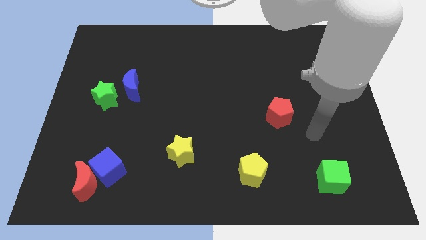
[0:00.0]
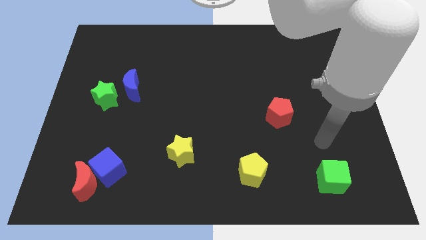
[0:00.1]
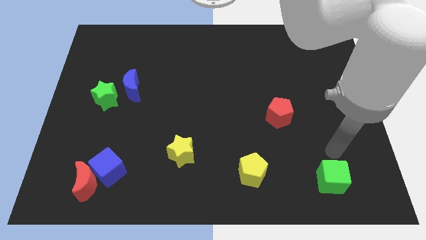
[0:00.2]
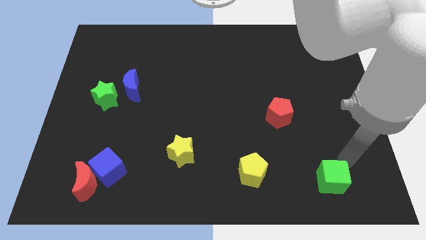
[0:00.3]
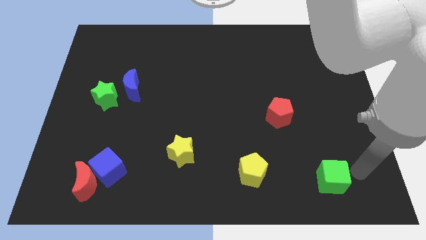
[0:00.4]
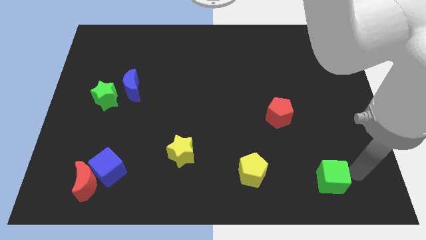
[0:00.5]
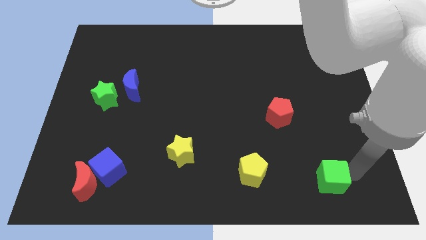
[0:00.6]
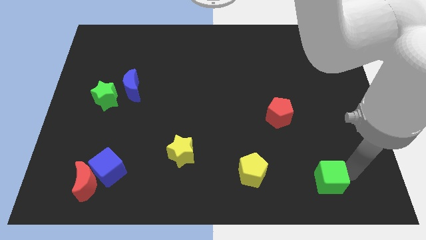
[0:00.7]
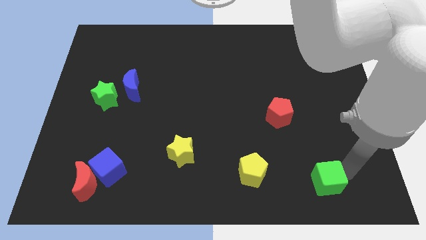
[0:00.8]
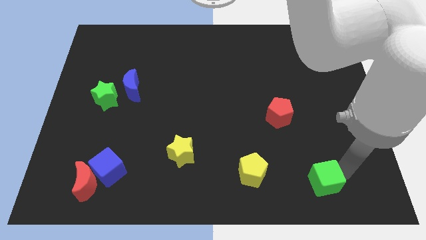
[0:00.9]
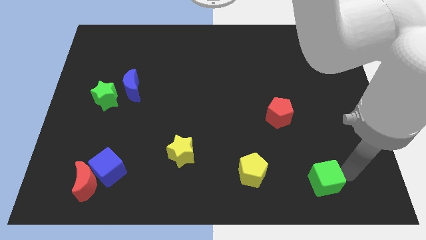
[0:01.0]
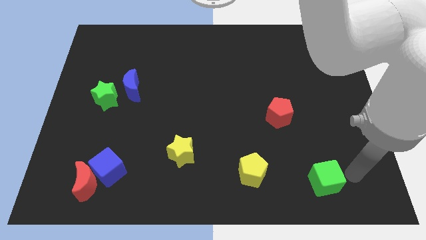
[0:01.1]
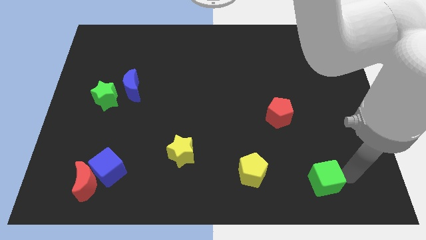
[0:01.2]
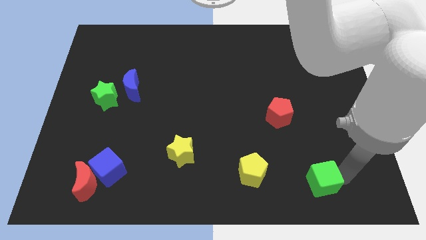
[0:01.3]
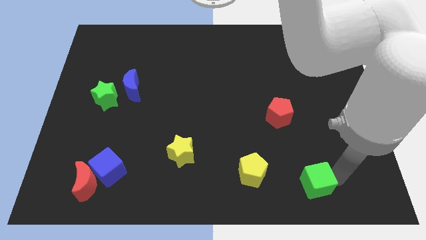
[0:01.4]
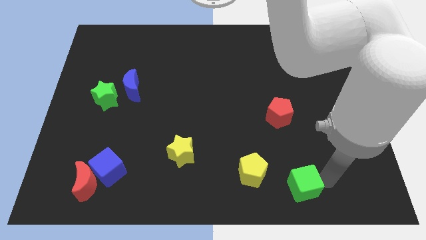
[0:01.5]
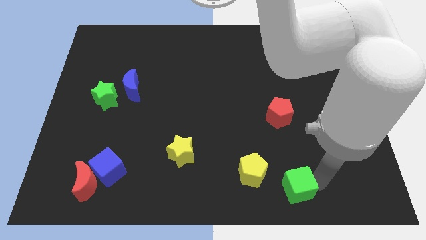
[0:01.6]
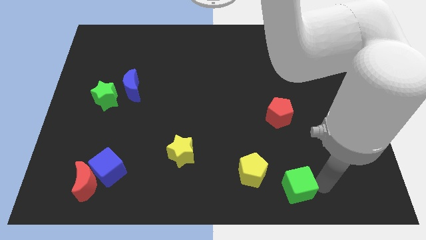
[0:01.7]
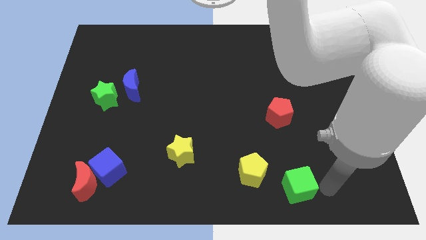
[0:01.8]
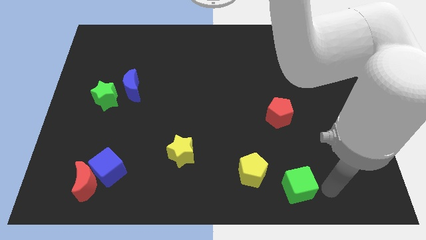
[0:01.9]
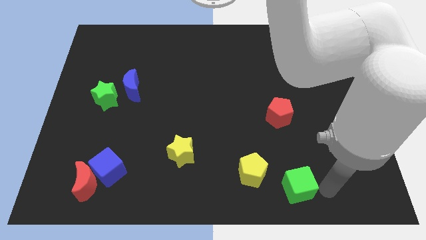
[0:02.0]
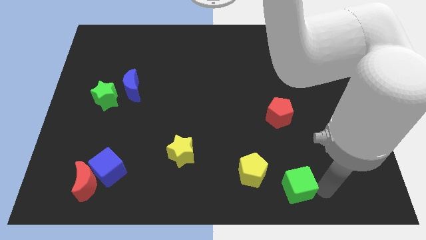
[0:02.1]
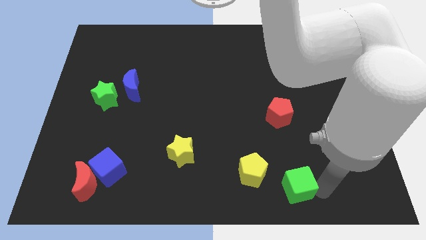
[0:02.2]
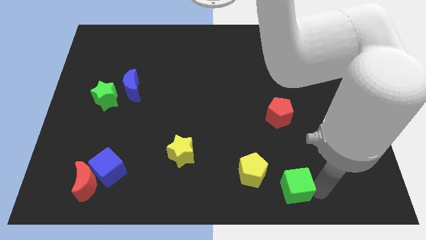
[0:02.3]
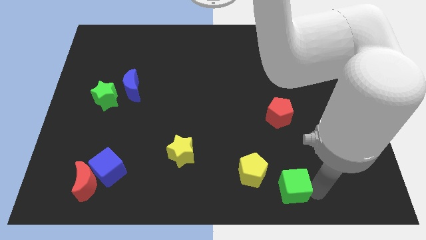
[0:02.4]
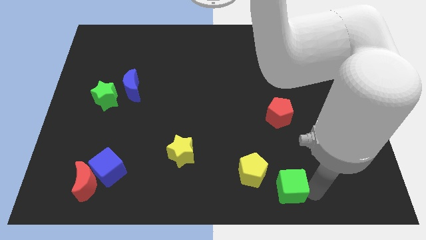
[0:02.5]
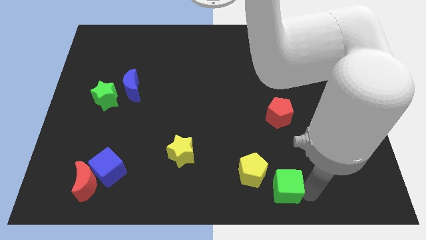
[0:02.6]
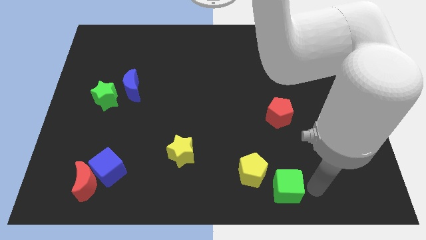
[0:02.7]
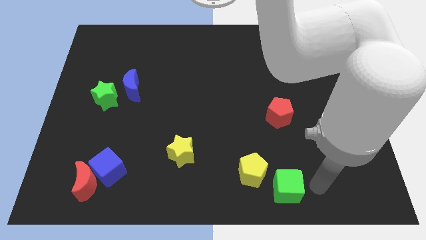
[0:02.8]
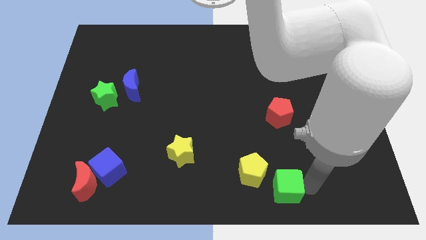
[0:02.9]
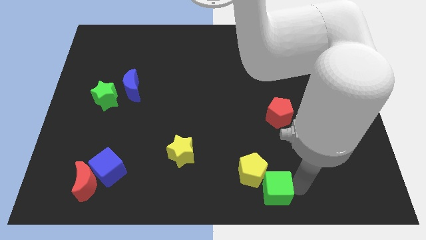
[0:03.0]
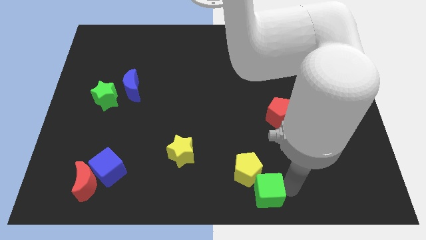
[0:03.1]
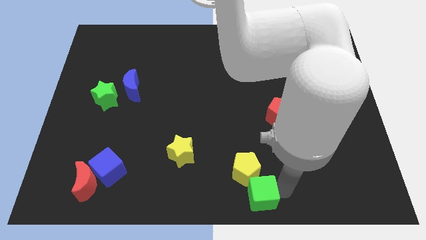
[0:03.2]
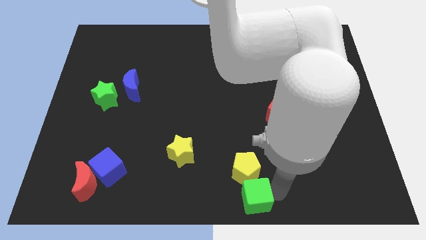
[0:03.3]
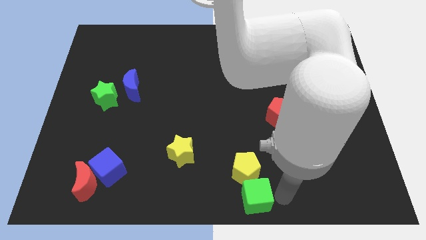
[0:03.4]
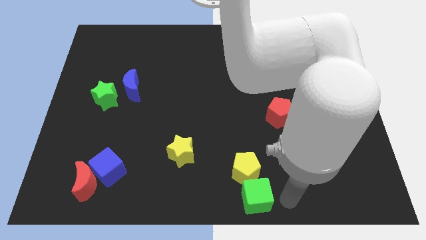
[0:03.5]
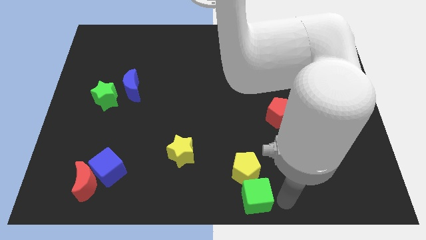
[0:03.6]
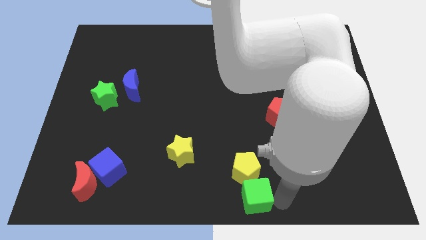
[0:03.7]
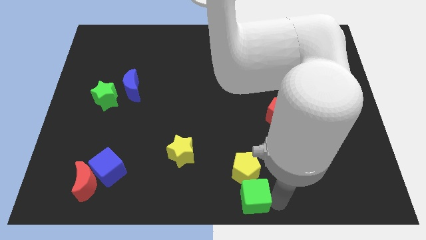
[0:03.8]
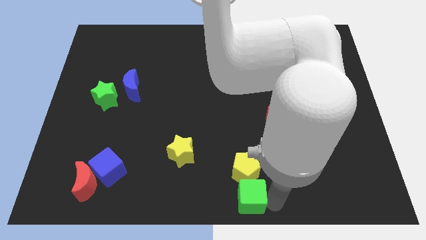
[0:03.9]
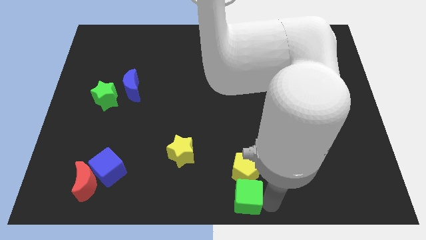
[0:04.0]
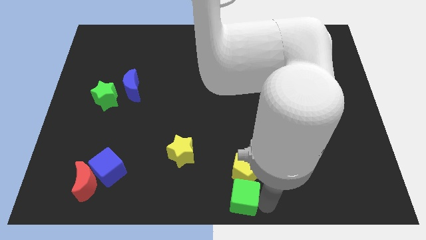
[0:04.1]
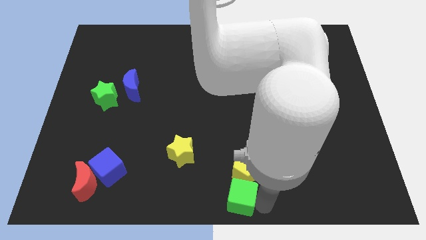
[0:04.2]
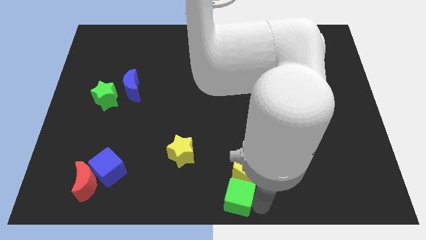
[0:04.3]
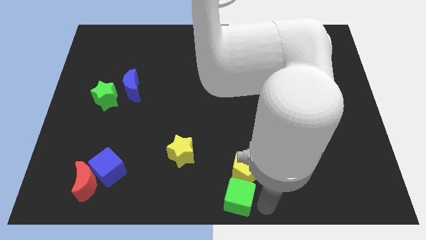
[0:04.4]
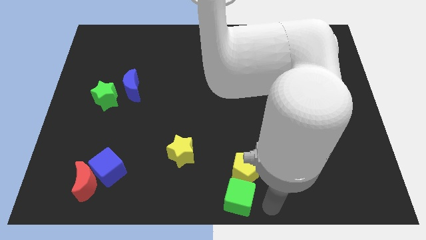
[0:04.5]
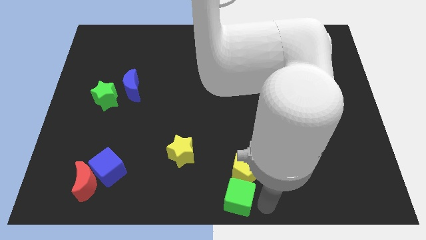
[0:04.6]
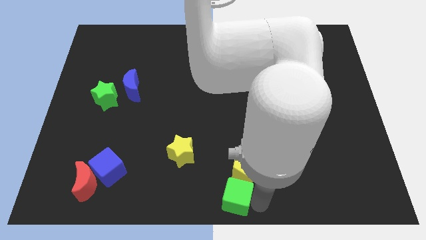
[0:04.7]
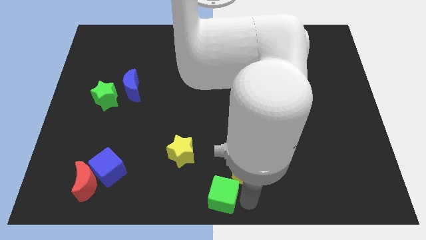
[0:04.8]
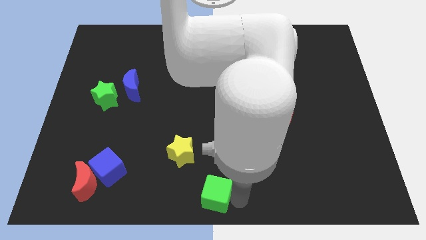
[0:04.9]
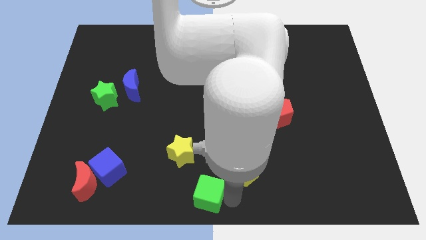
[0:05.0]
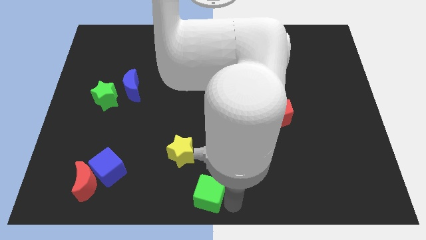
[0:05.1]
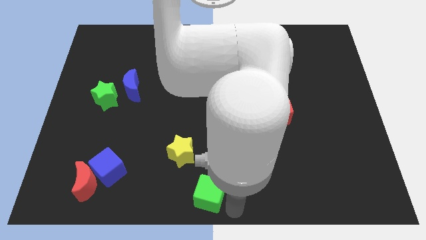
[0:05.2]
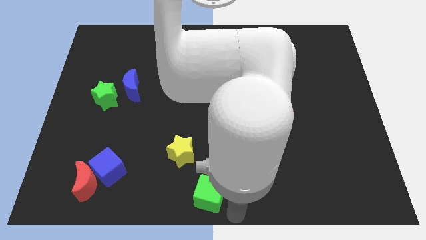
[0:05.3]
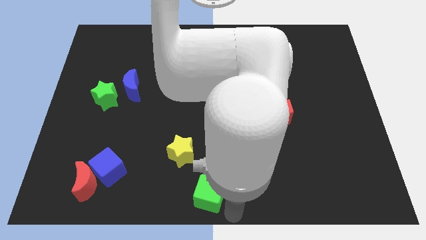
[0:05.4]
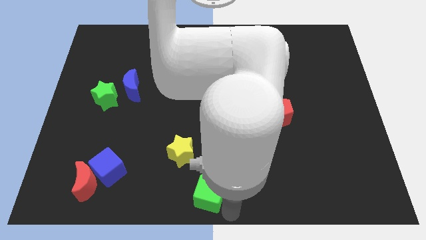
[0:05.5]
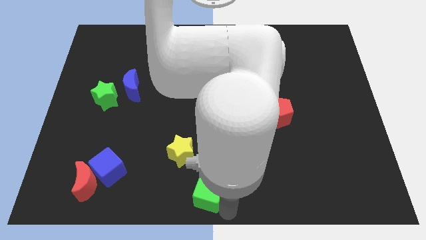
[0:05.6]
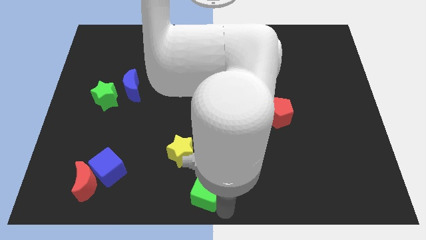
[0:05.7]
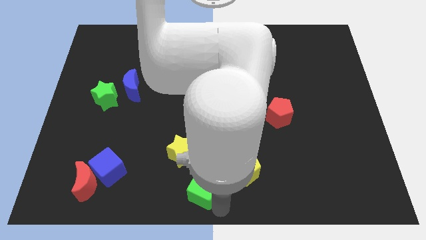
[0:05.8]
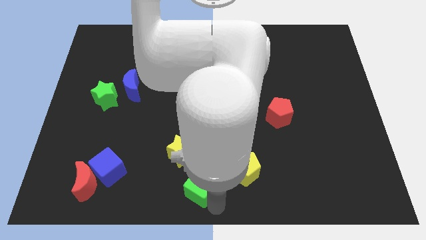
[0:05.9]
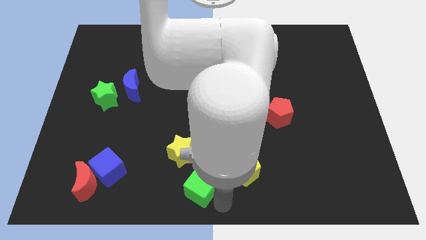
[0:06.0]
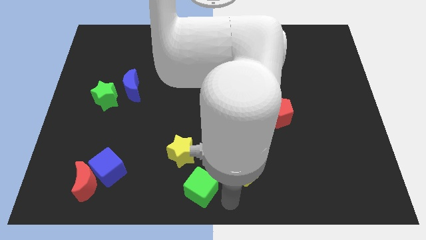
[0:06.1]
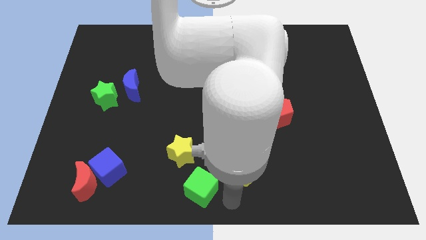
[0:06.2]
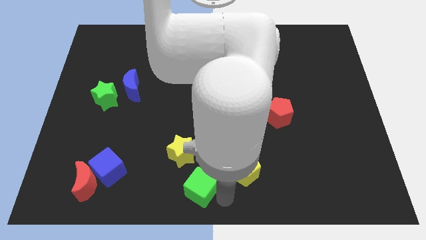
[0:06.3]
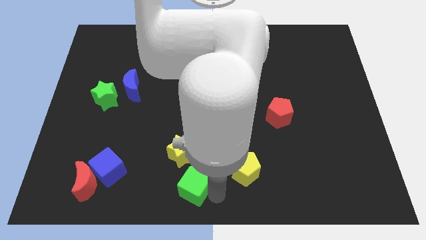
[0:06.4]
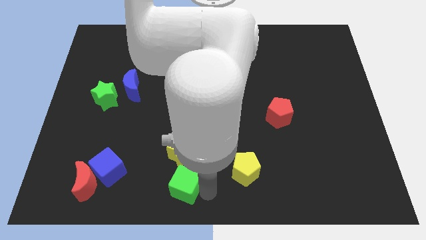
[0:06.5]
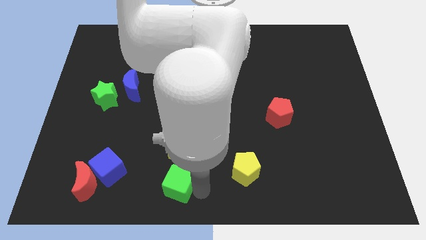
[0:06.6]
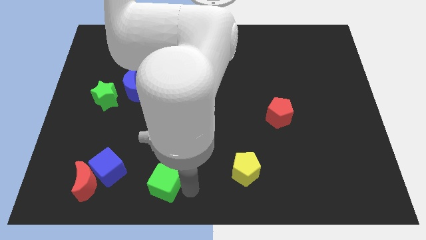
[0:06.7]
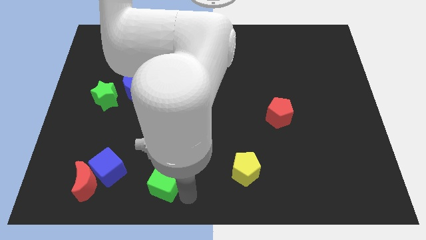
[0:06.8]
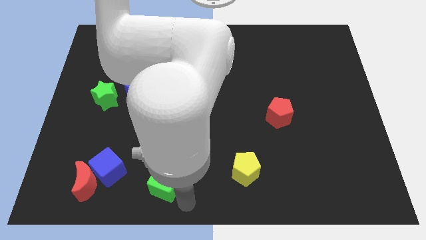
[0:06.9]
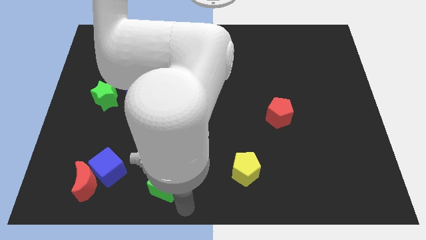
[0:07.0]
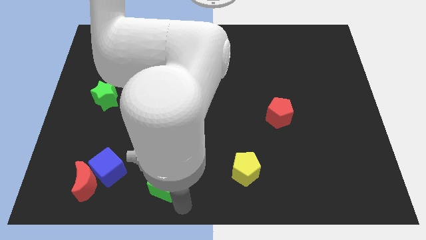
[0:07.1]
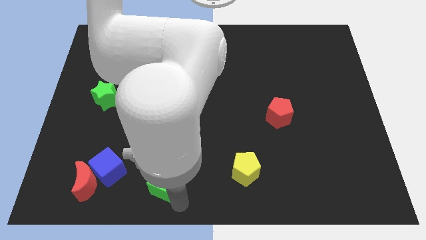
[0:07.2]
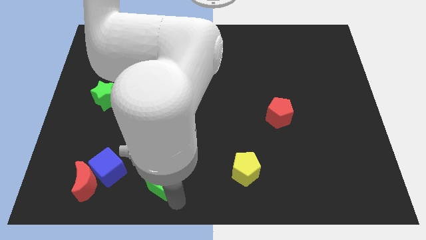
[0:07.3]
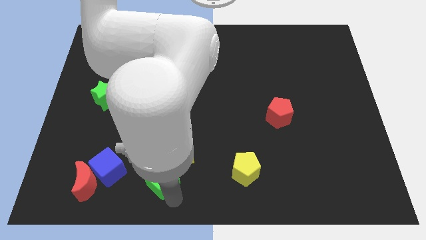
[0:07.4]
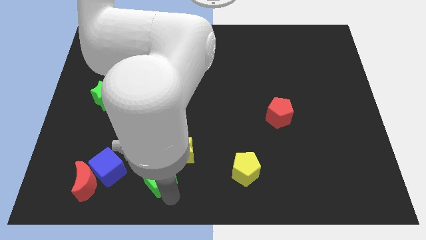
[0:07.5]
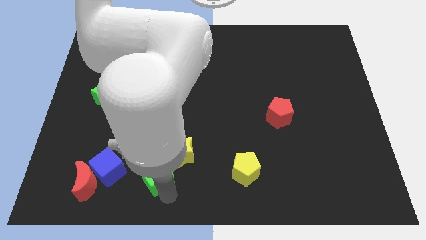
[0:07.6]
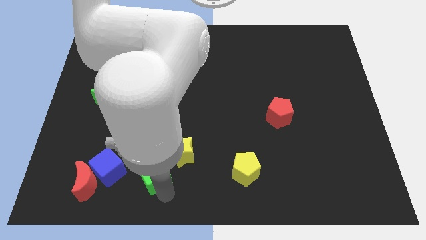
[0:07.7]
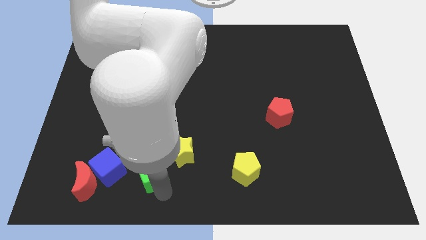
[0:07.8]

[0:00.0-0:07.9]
move the green cube to the left side of the yellow star
